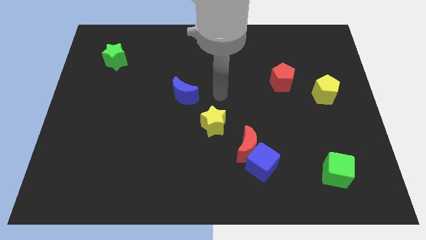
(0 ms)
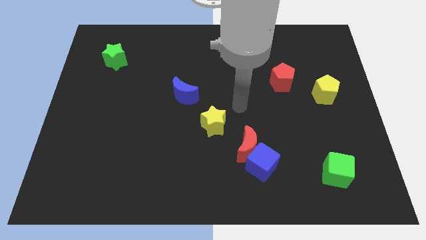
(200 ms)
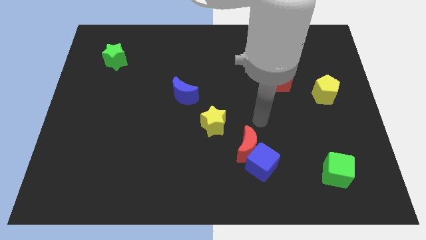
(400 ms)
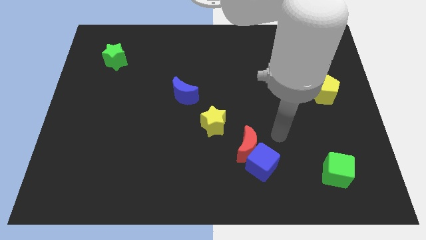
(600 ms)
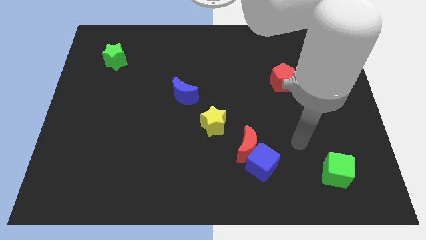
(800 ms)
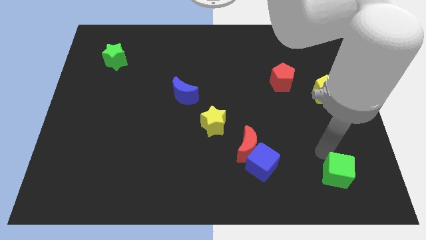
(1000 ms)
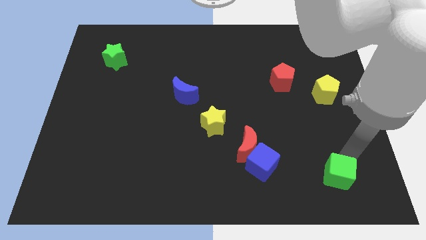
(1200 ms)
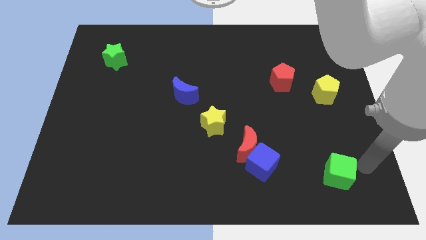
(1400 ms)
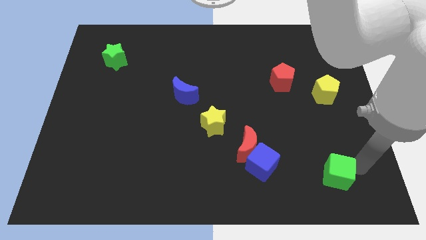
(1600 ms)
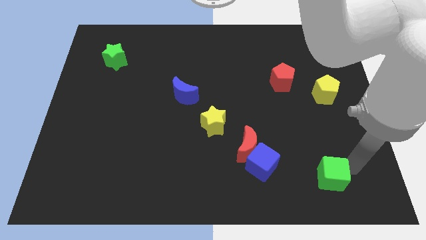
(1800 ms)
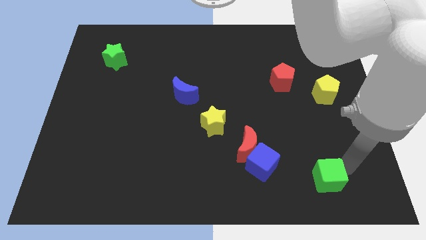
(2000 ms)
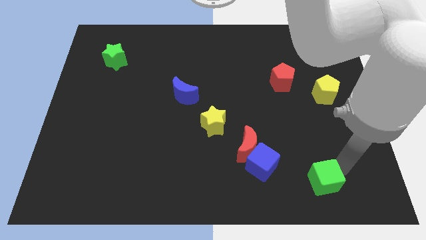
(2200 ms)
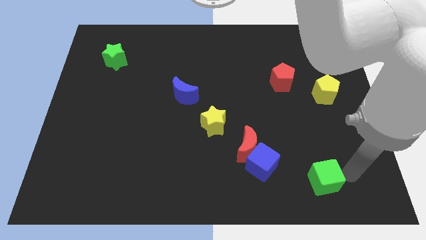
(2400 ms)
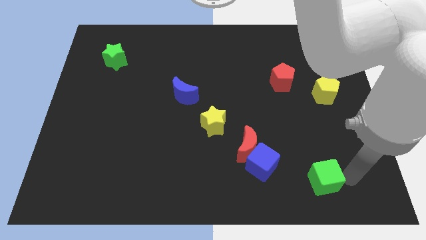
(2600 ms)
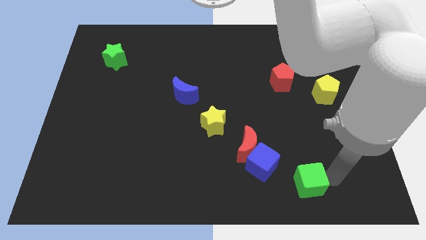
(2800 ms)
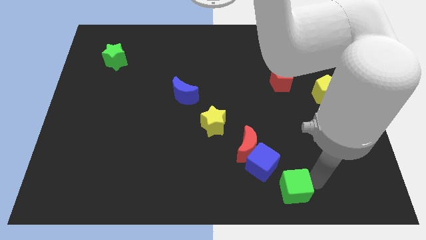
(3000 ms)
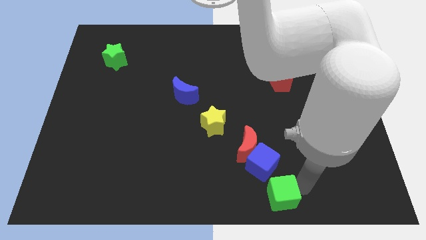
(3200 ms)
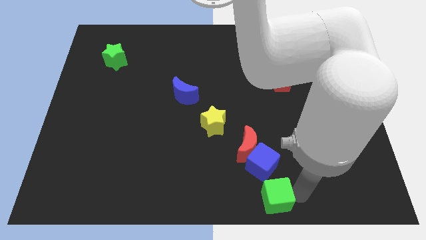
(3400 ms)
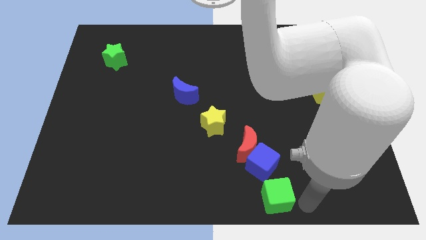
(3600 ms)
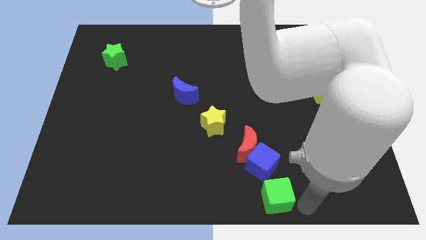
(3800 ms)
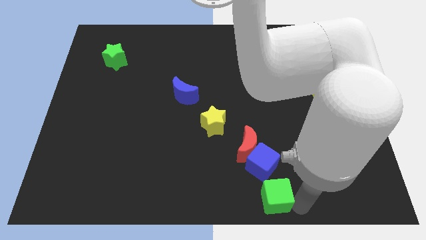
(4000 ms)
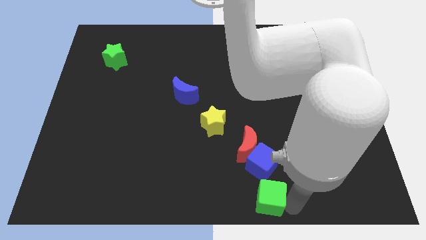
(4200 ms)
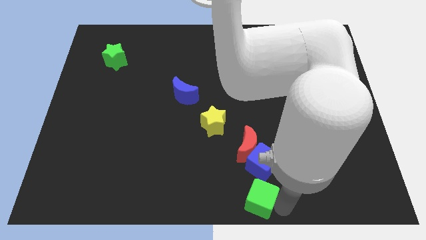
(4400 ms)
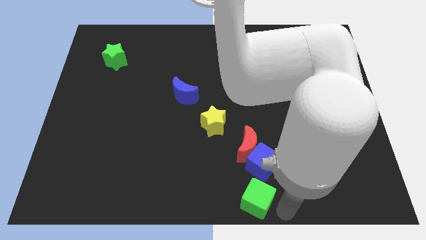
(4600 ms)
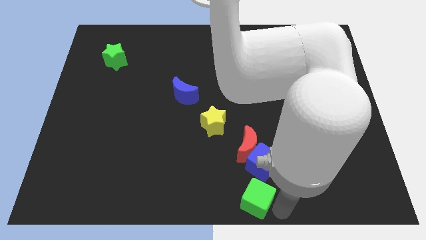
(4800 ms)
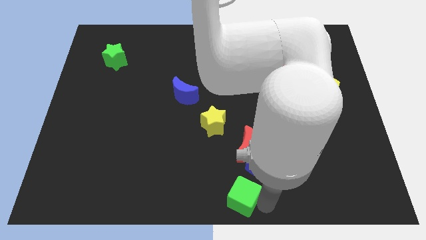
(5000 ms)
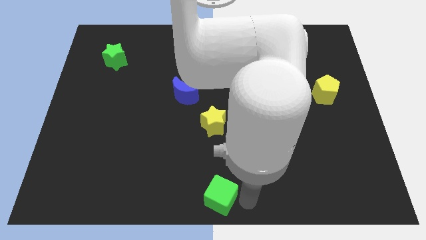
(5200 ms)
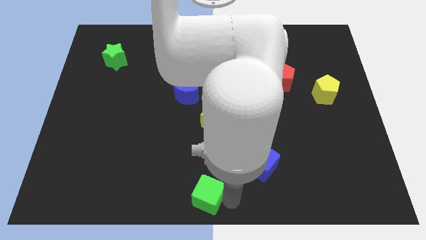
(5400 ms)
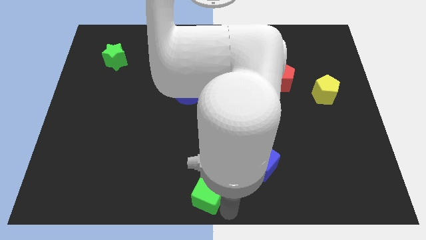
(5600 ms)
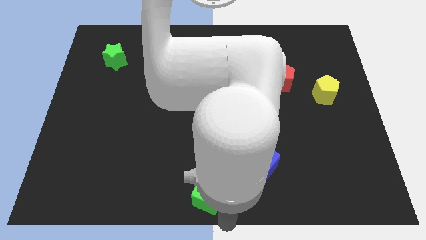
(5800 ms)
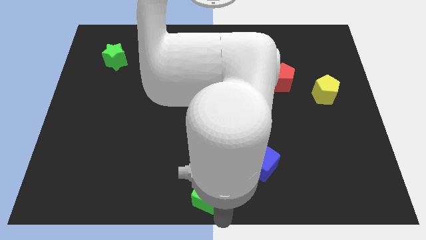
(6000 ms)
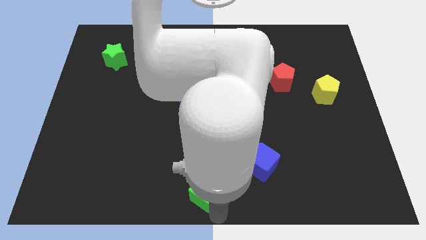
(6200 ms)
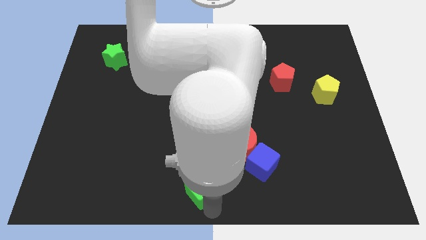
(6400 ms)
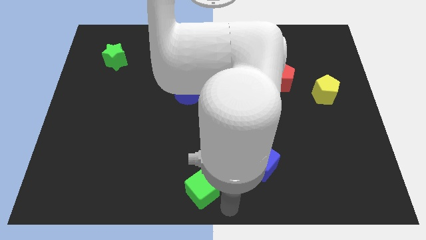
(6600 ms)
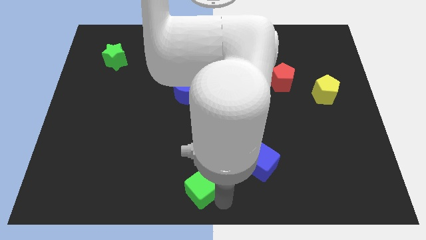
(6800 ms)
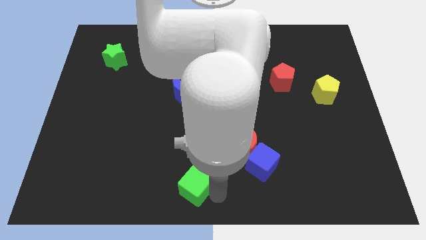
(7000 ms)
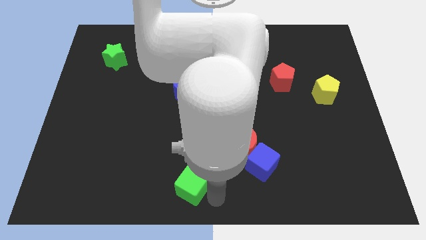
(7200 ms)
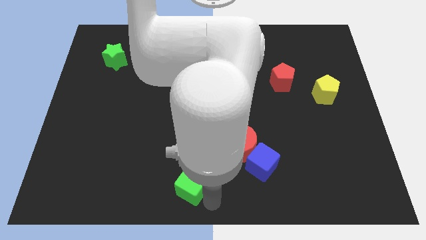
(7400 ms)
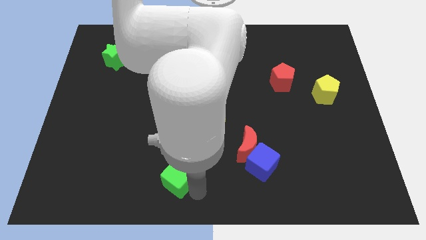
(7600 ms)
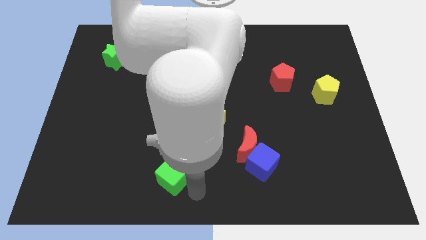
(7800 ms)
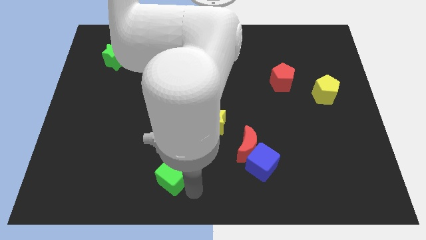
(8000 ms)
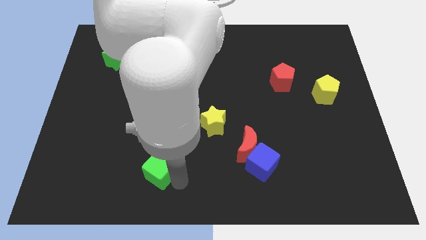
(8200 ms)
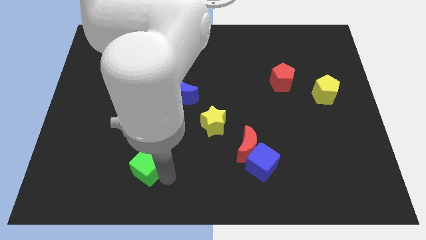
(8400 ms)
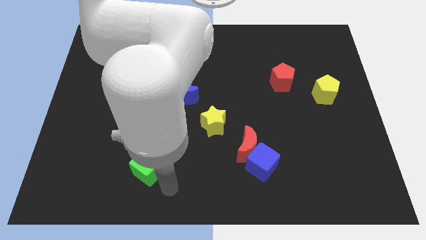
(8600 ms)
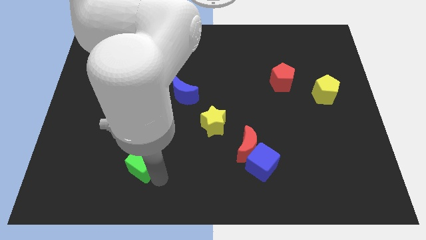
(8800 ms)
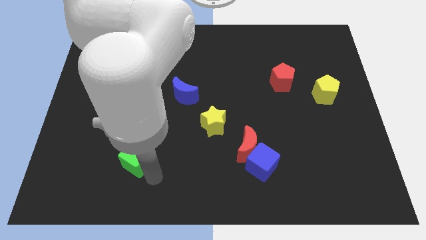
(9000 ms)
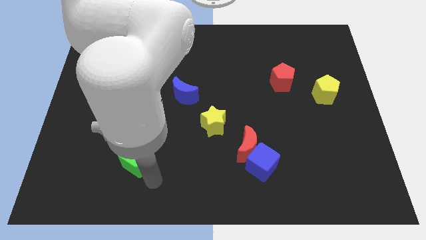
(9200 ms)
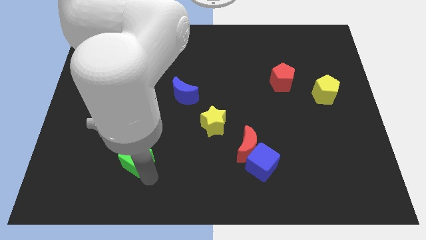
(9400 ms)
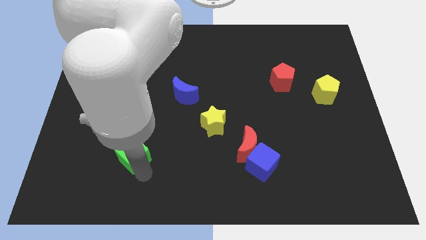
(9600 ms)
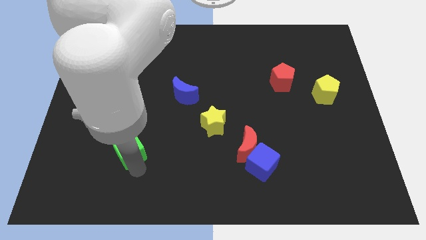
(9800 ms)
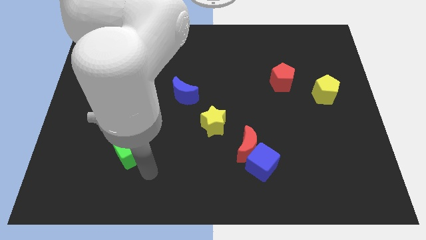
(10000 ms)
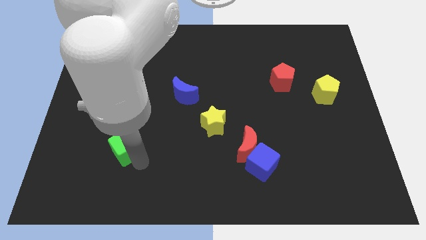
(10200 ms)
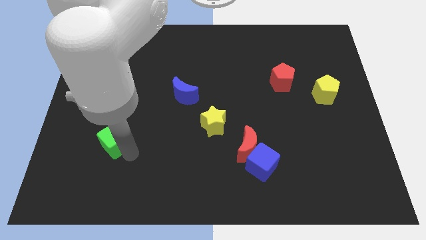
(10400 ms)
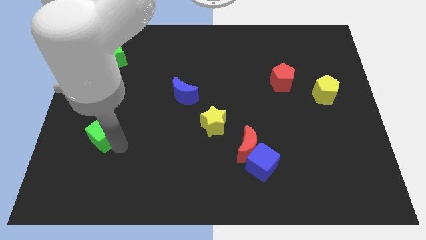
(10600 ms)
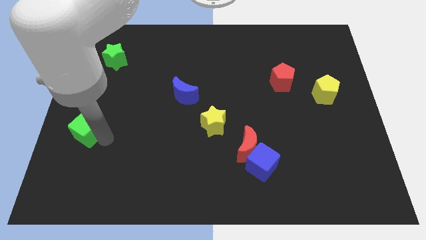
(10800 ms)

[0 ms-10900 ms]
put the green cube to the left side of the board

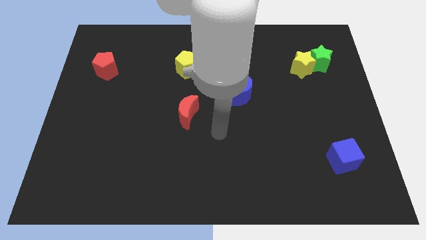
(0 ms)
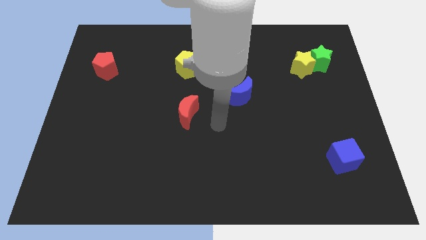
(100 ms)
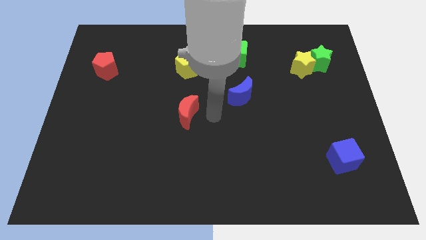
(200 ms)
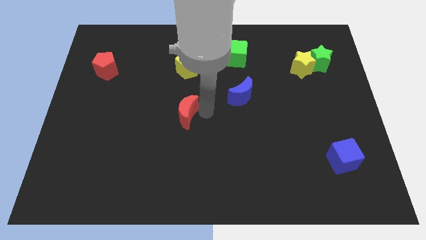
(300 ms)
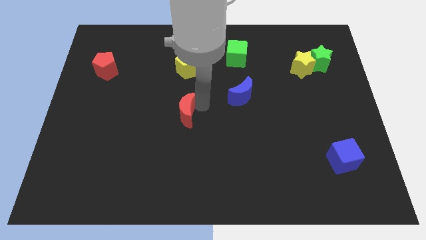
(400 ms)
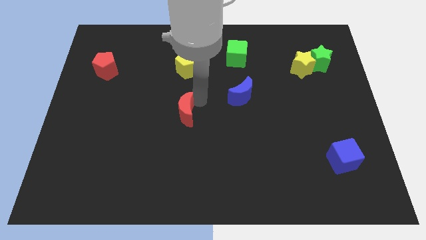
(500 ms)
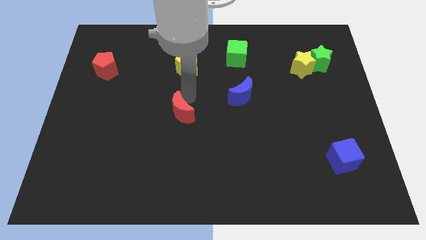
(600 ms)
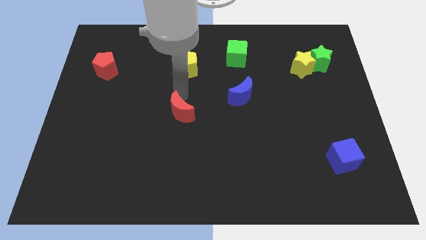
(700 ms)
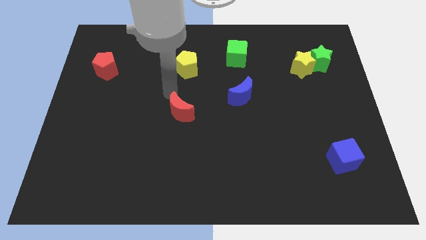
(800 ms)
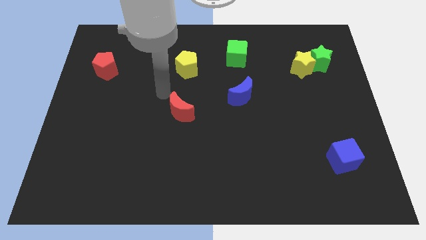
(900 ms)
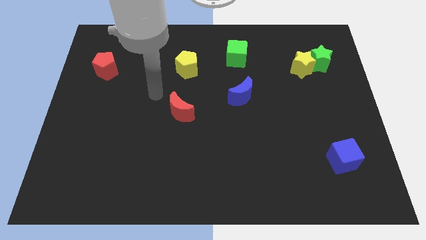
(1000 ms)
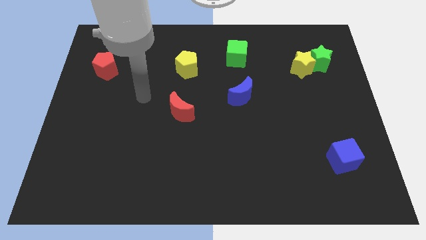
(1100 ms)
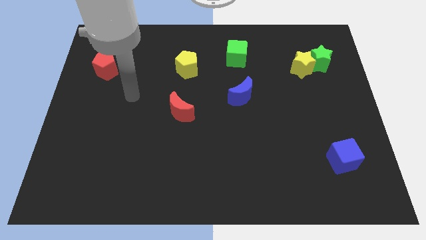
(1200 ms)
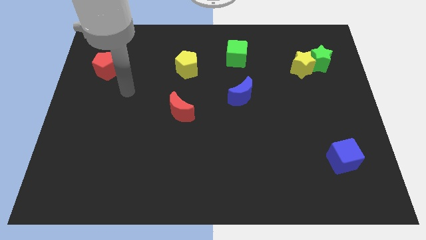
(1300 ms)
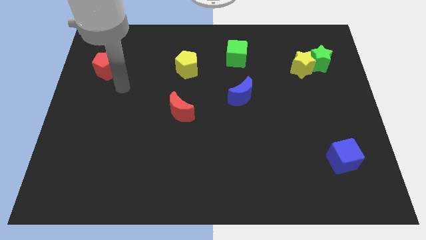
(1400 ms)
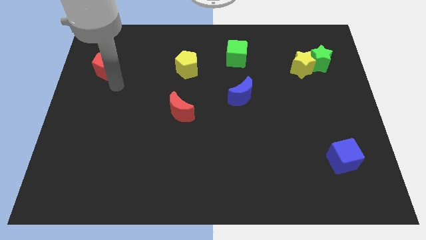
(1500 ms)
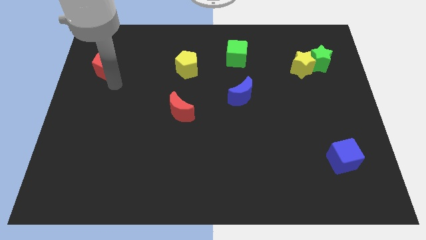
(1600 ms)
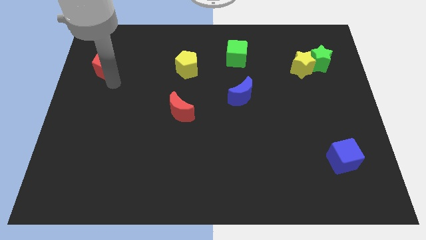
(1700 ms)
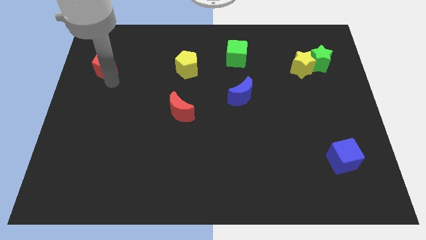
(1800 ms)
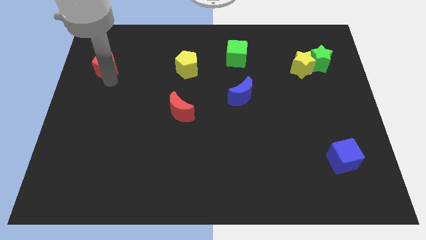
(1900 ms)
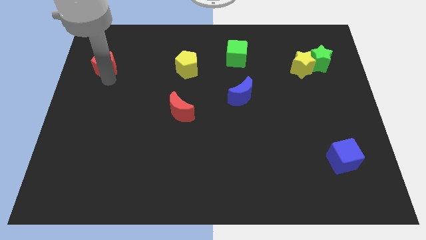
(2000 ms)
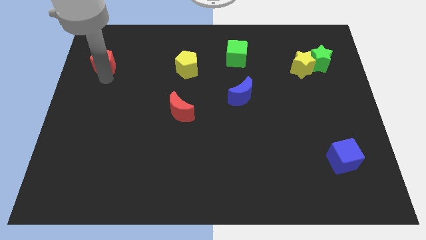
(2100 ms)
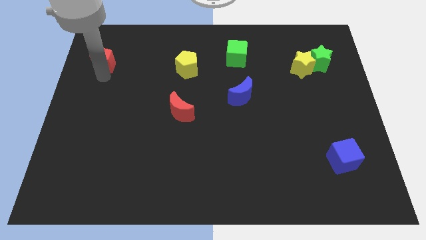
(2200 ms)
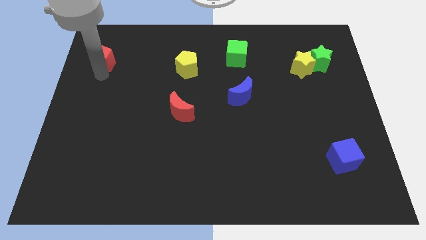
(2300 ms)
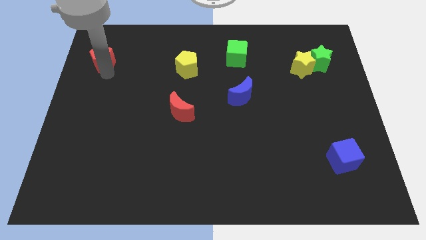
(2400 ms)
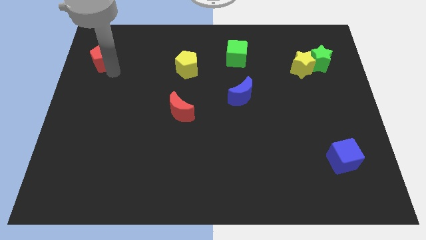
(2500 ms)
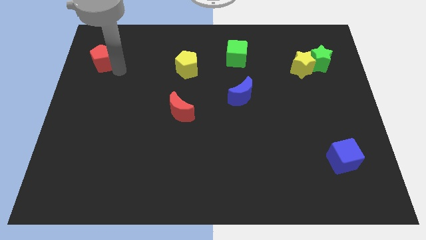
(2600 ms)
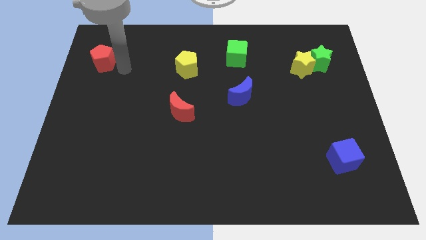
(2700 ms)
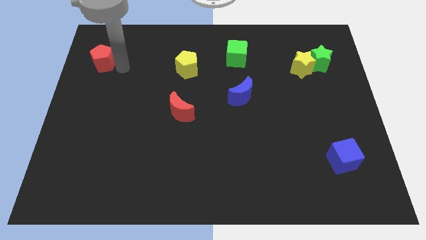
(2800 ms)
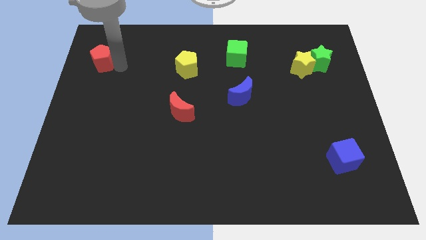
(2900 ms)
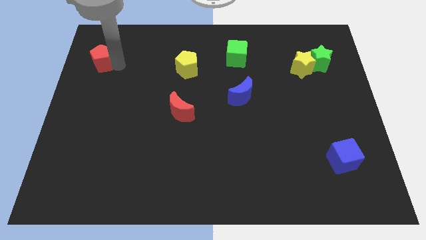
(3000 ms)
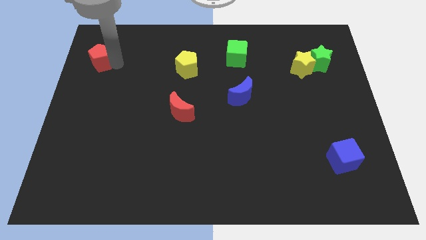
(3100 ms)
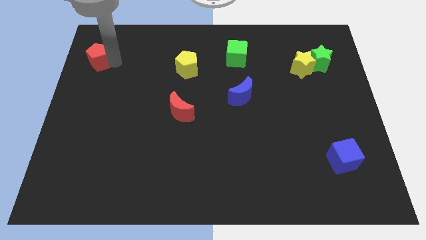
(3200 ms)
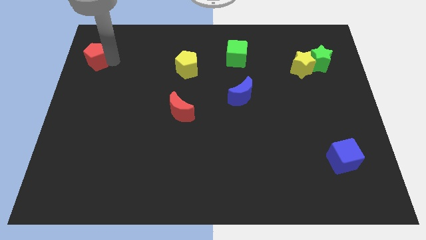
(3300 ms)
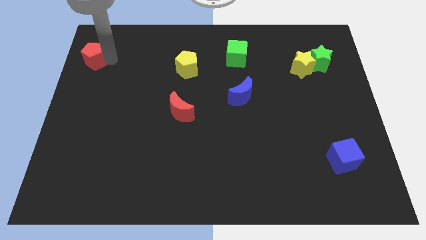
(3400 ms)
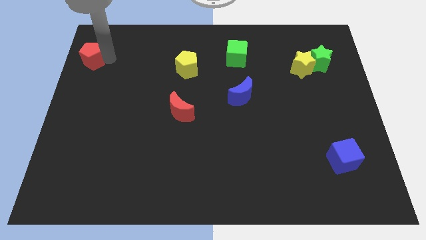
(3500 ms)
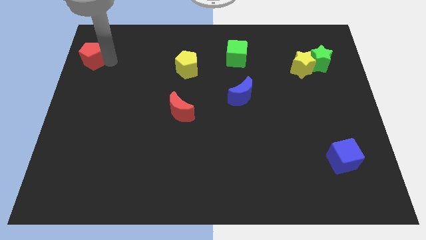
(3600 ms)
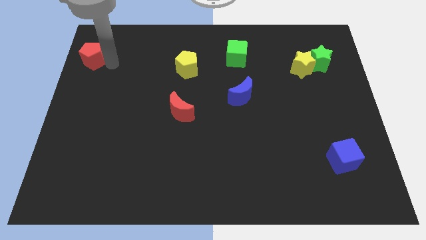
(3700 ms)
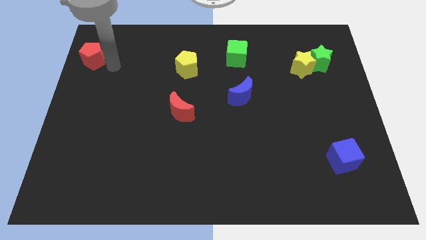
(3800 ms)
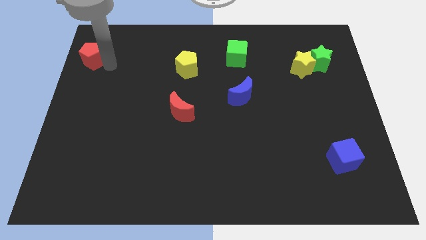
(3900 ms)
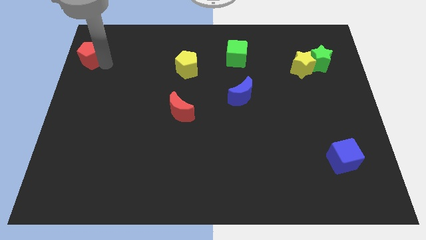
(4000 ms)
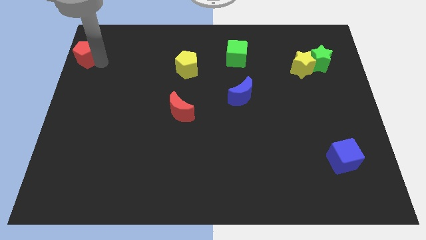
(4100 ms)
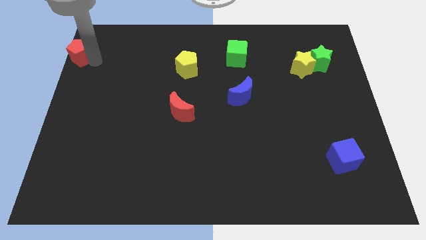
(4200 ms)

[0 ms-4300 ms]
move the red pentagon to the top left
